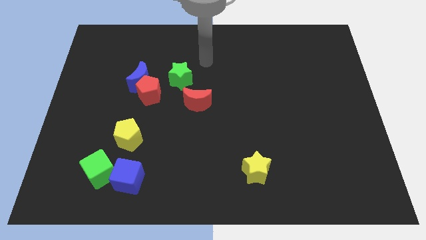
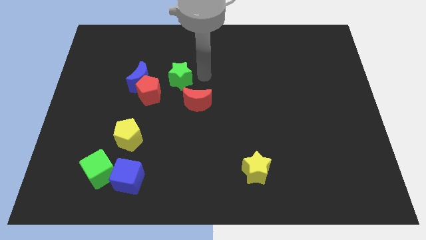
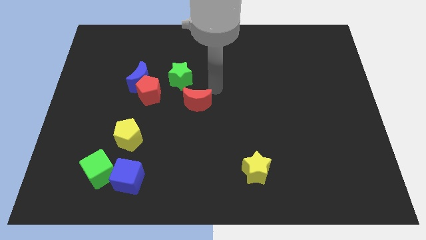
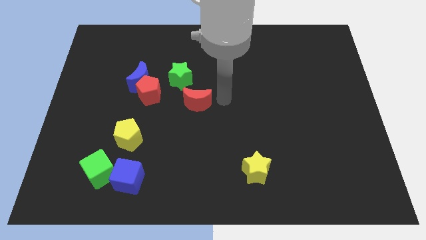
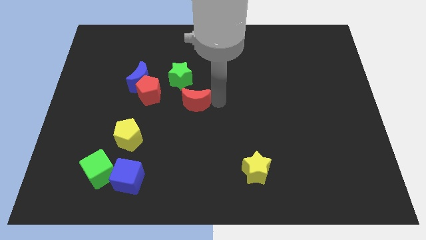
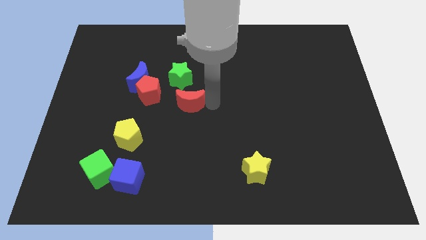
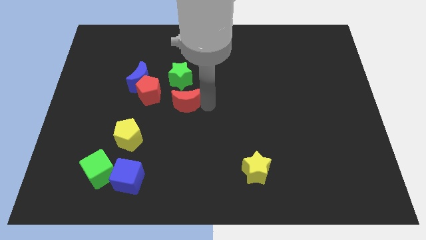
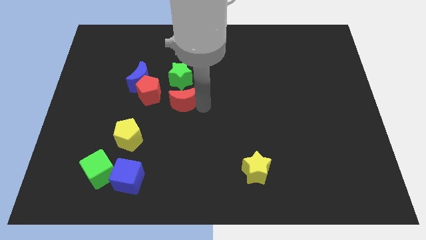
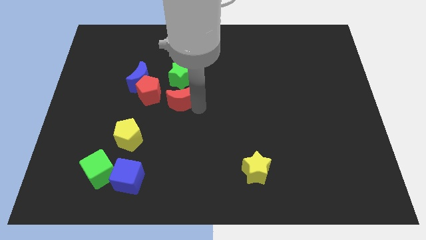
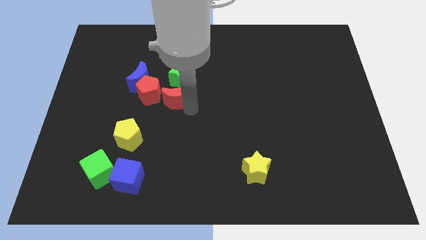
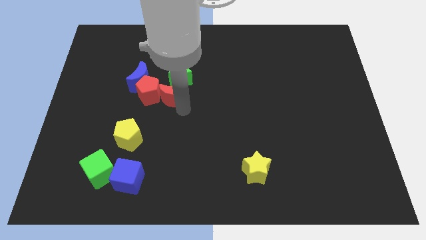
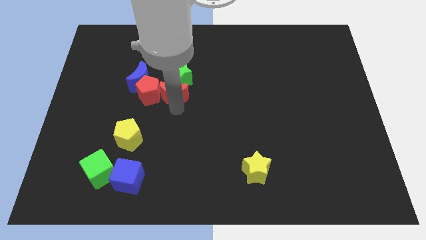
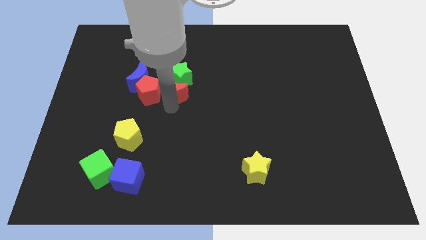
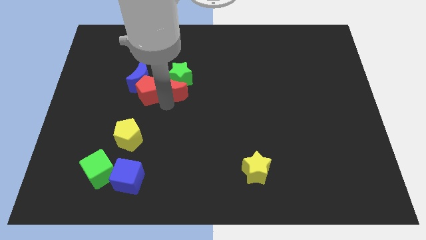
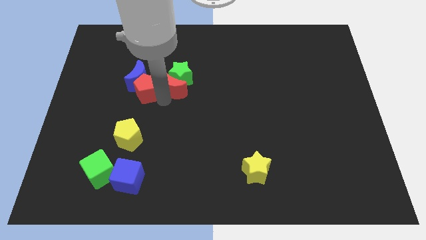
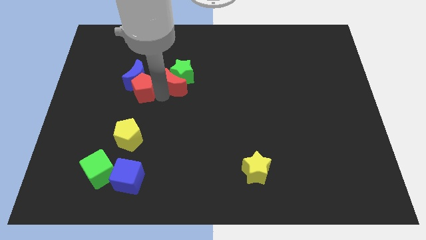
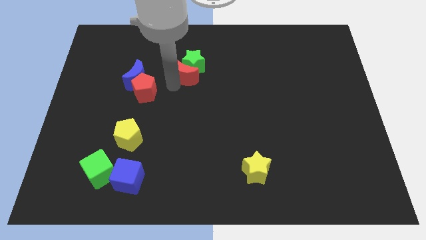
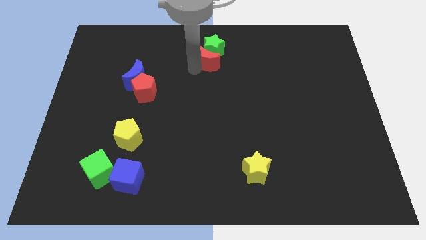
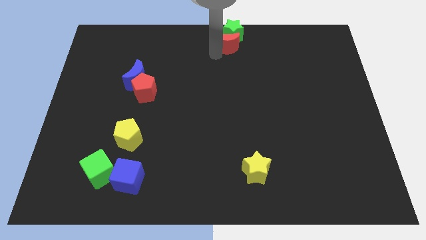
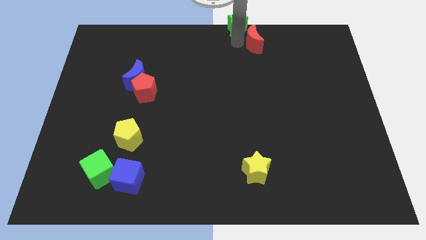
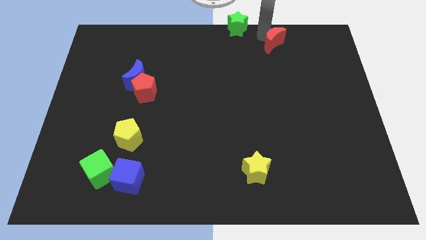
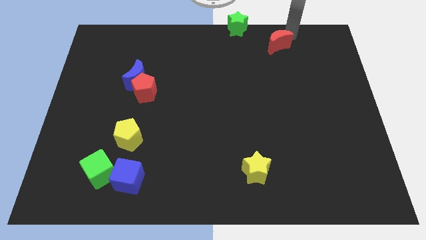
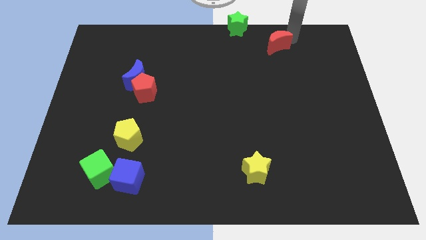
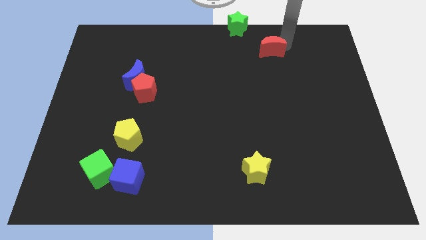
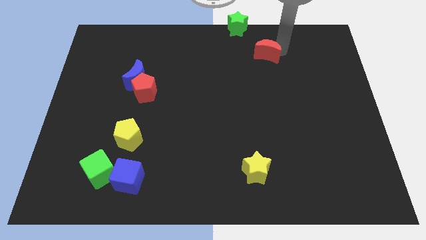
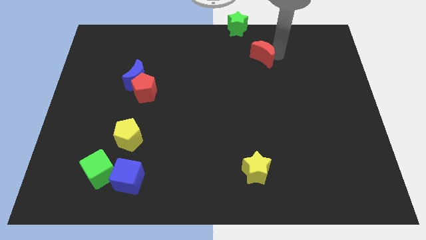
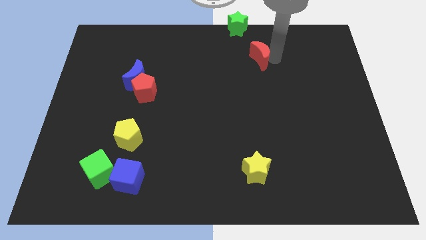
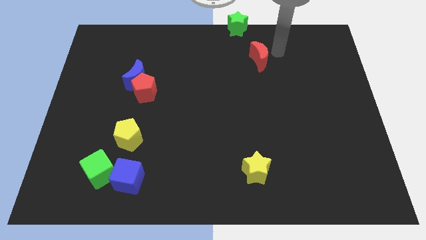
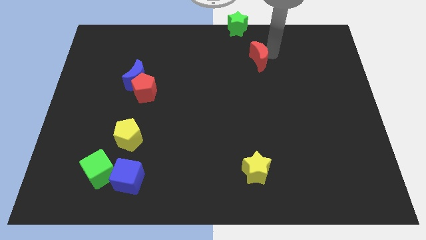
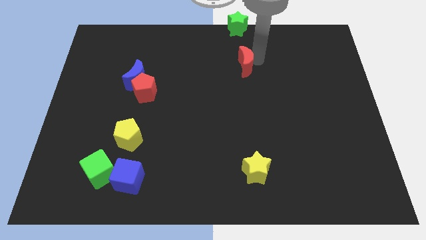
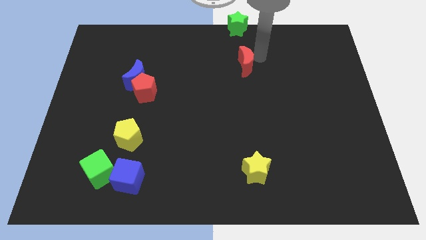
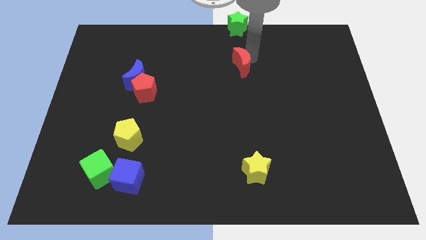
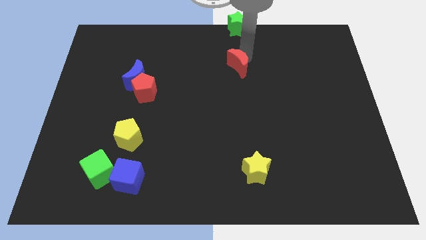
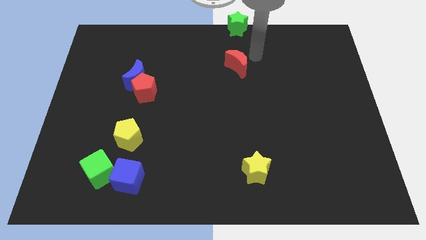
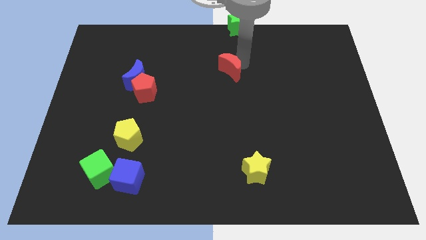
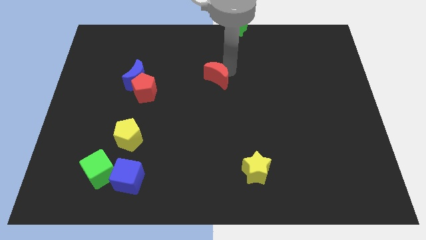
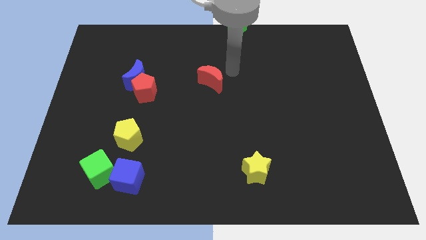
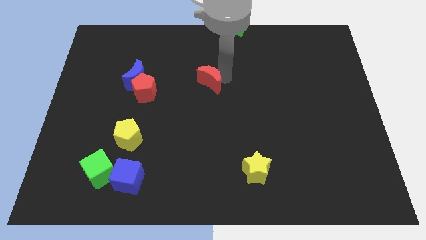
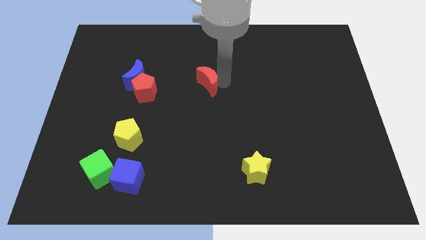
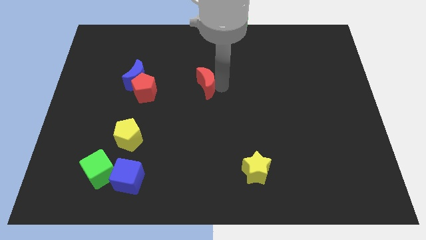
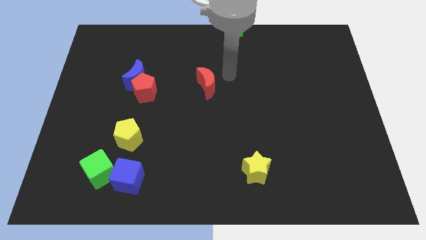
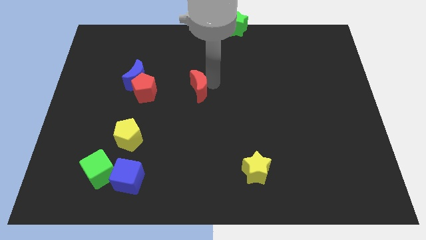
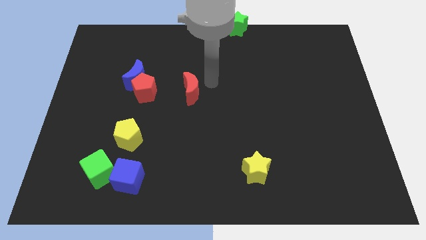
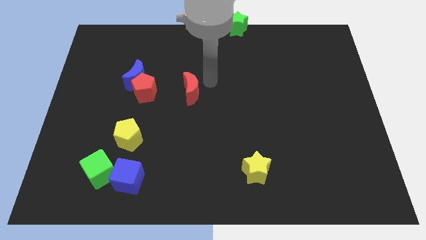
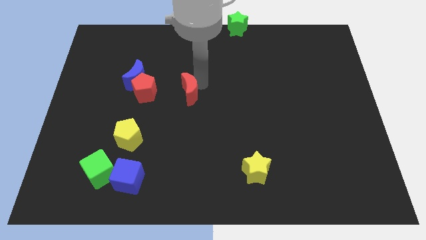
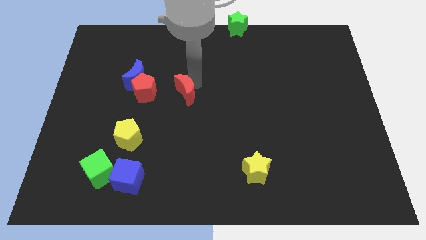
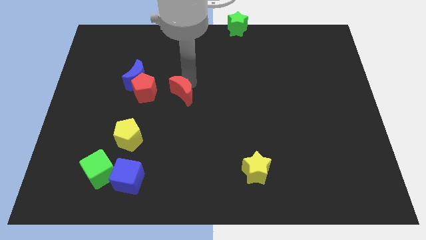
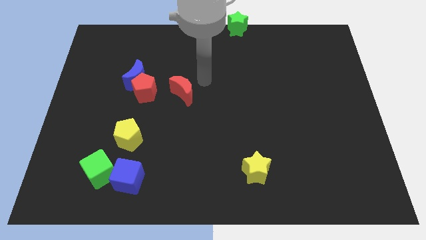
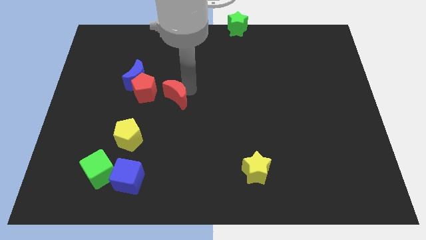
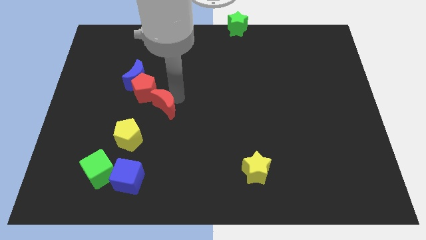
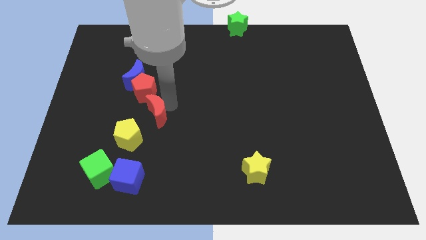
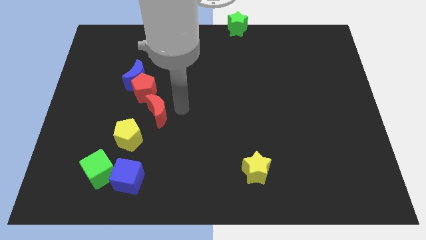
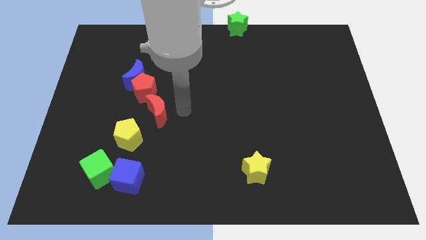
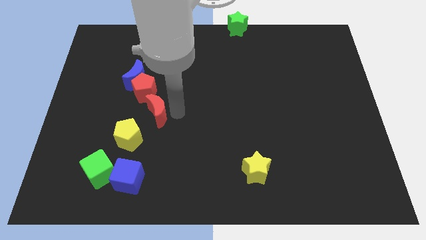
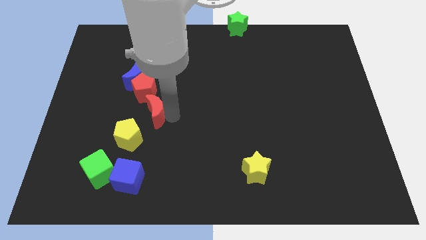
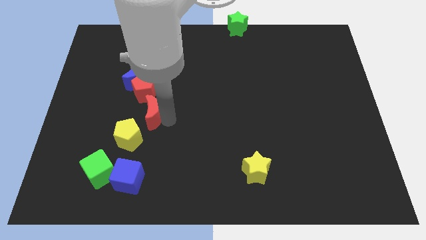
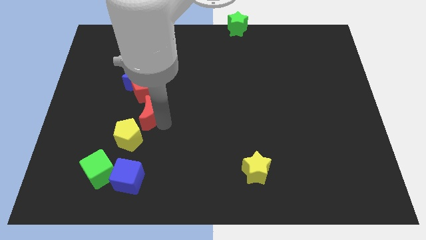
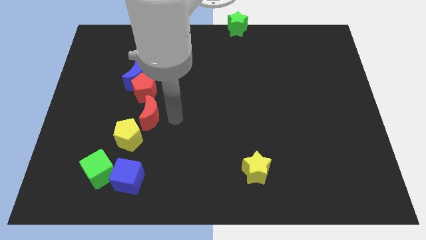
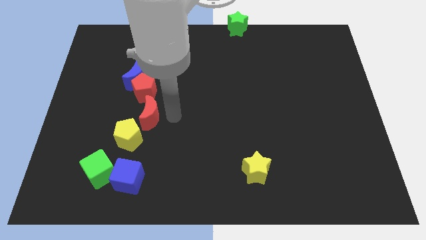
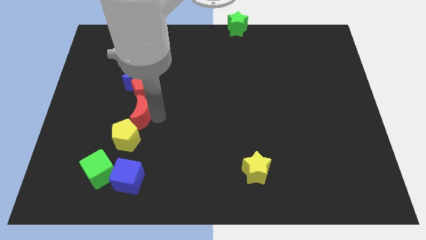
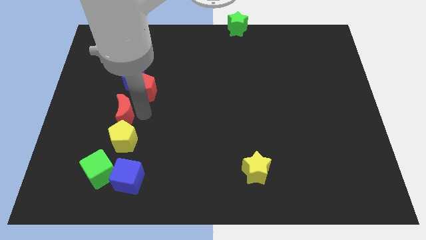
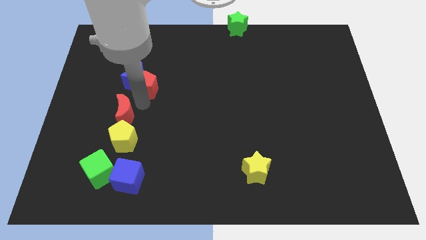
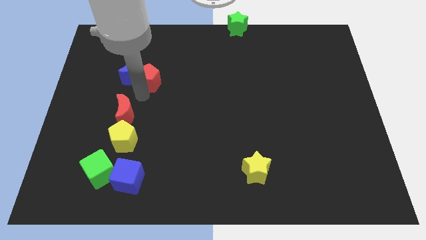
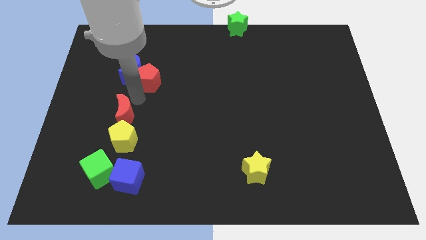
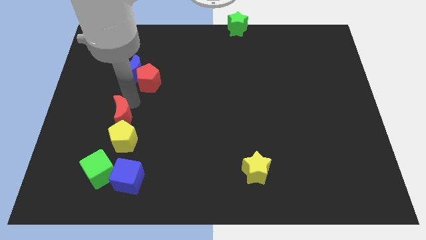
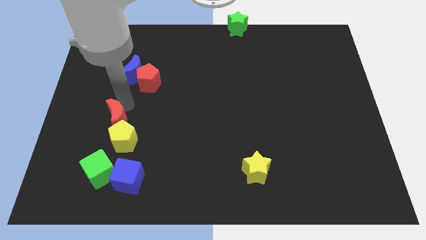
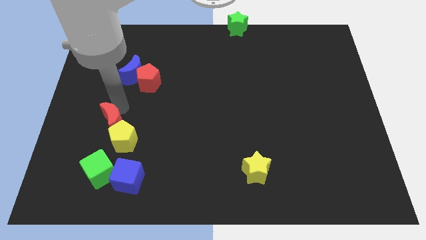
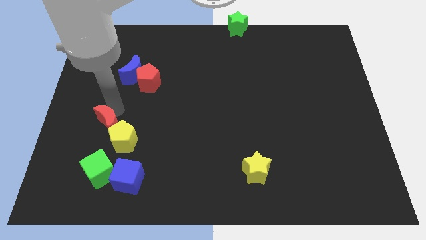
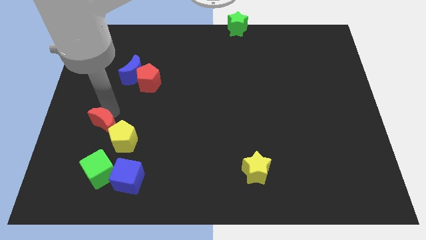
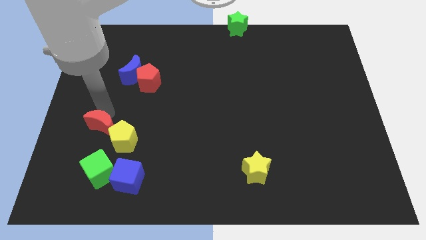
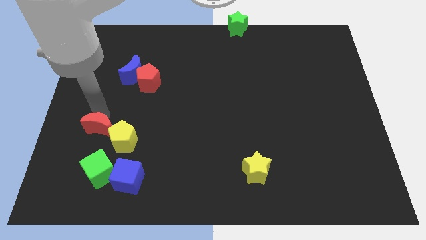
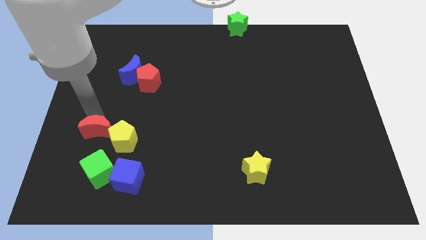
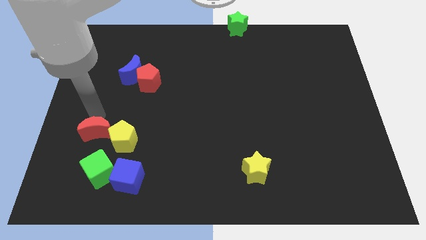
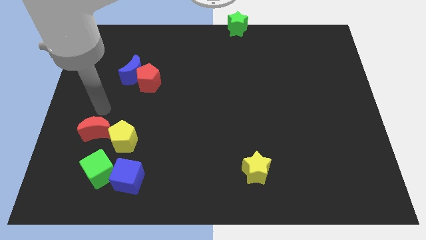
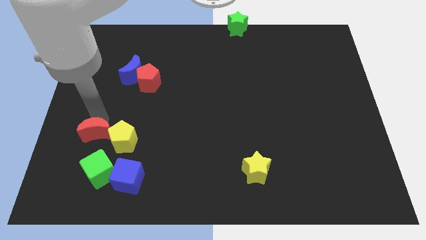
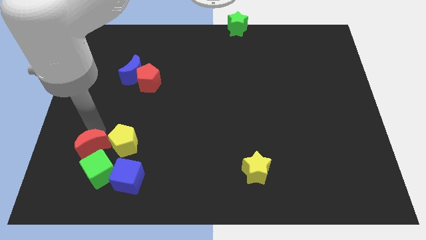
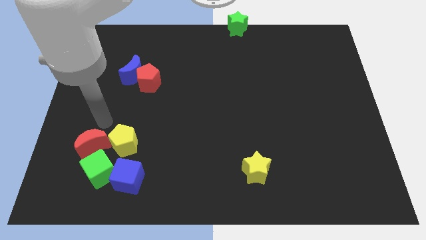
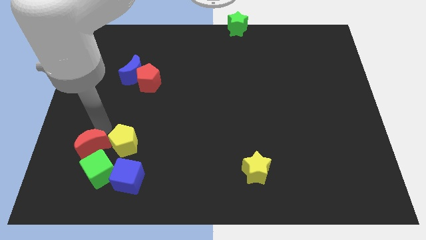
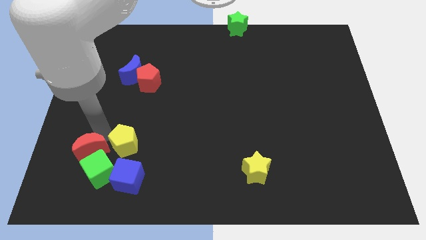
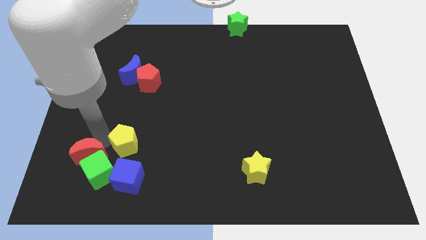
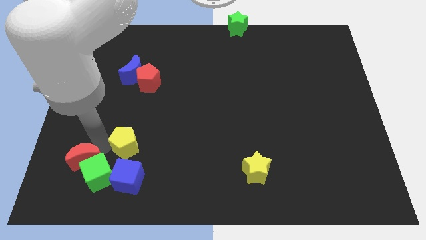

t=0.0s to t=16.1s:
move the red moon just left of the blue cube

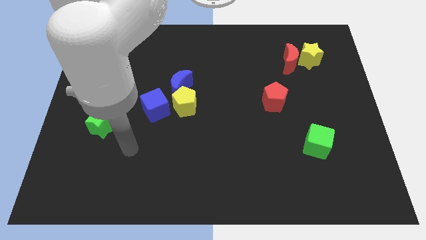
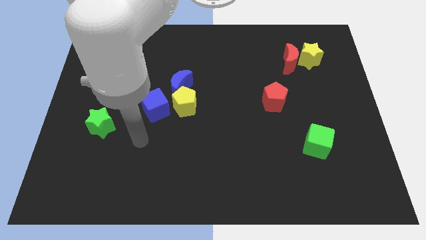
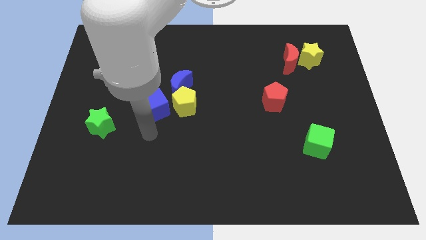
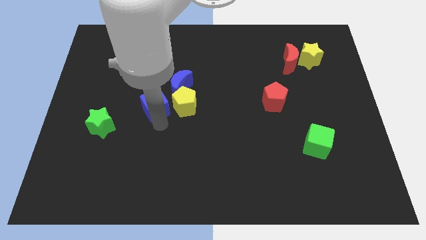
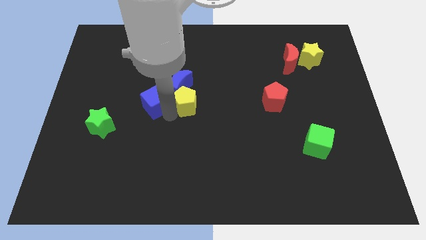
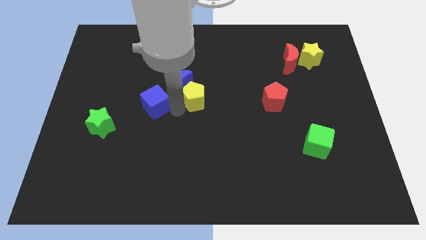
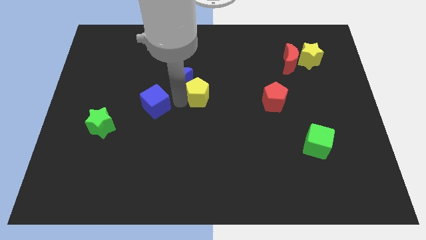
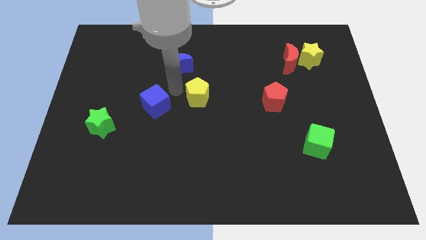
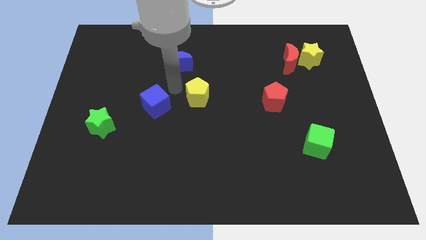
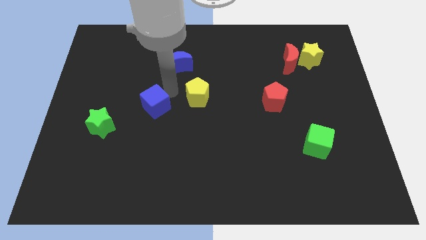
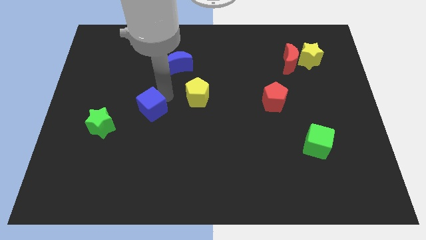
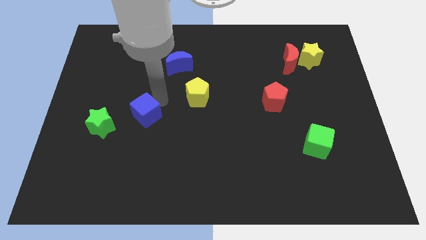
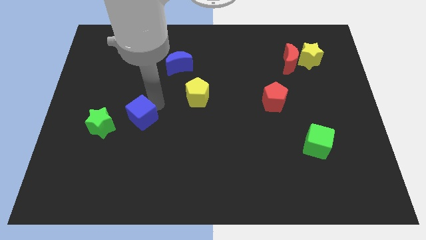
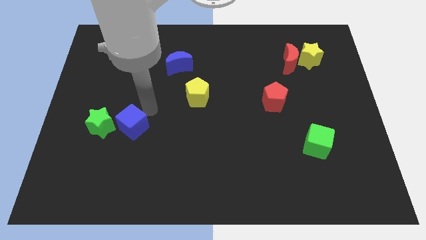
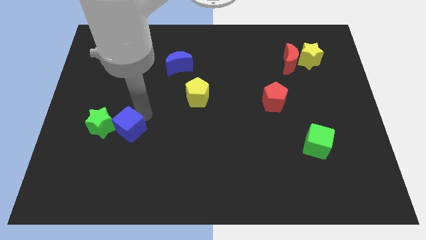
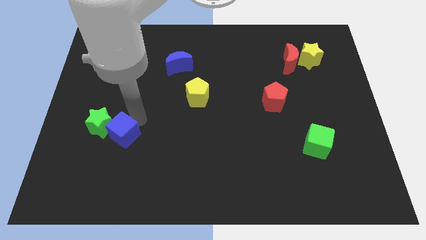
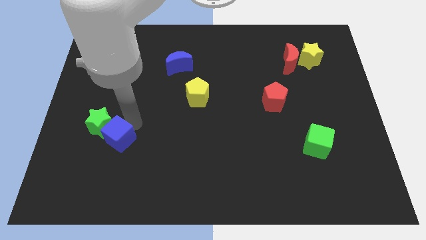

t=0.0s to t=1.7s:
move the blue cube to the bottom side of the green star
